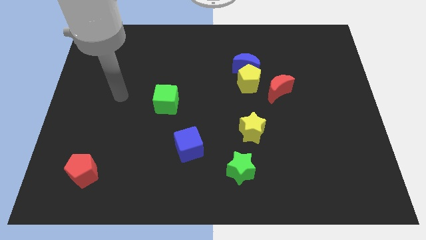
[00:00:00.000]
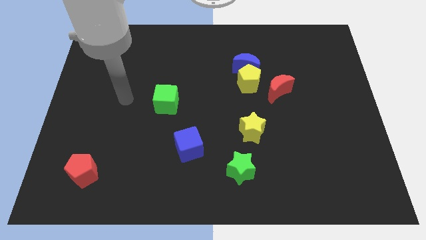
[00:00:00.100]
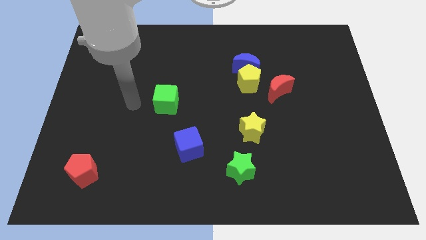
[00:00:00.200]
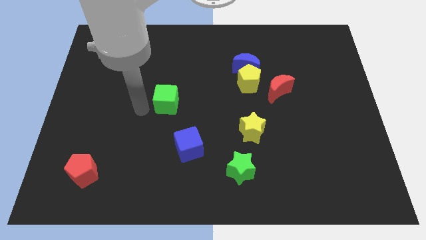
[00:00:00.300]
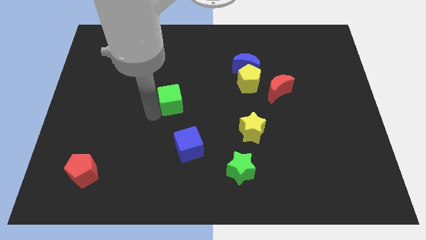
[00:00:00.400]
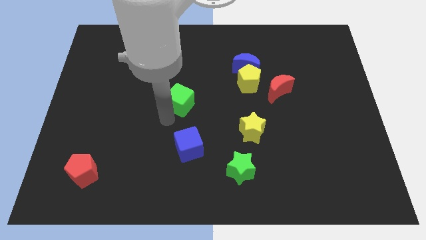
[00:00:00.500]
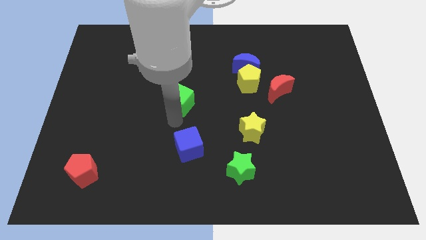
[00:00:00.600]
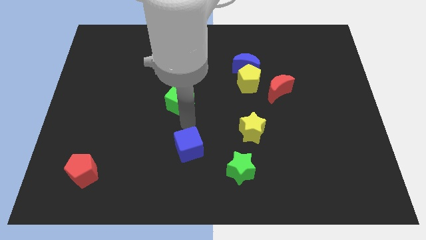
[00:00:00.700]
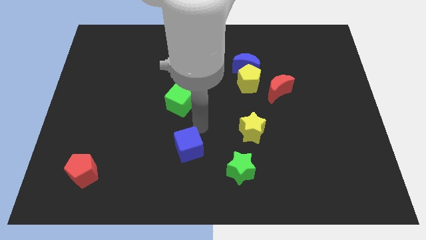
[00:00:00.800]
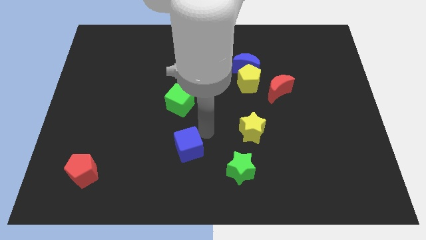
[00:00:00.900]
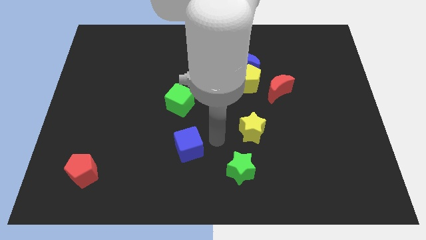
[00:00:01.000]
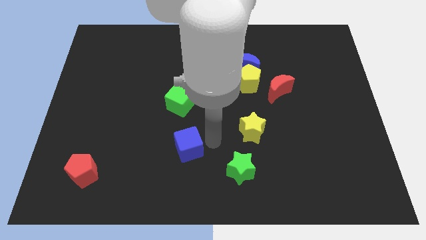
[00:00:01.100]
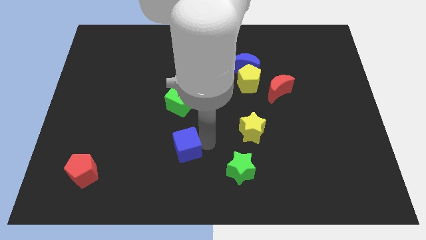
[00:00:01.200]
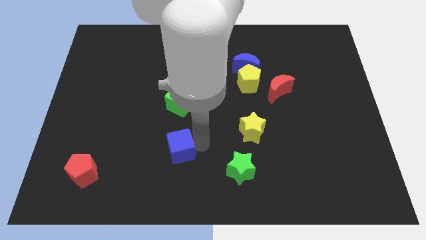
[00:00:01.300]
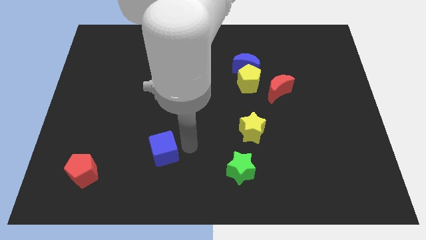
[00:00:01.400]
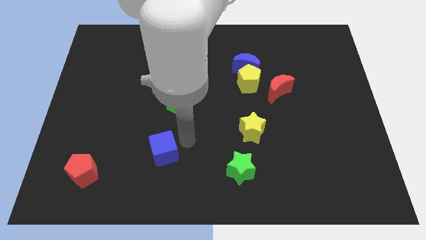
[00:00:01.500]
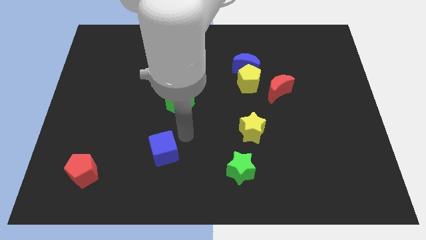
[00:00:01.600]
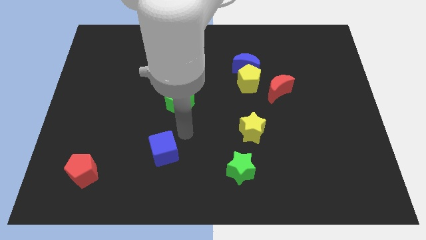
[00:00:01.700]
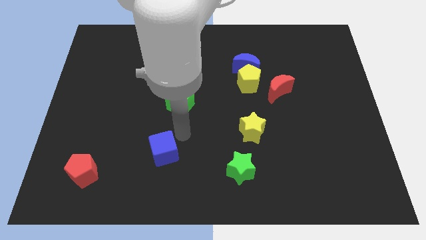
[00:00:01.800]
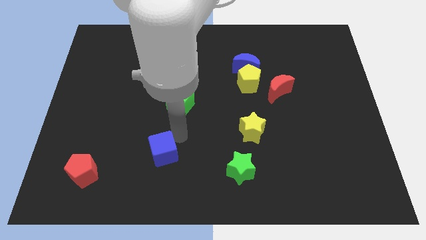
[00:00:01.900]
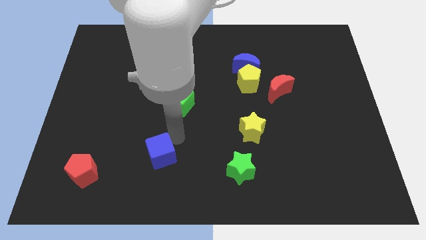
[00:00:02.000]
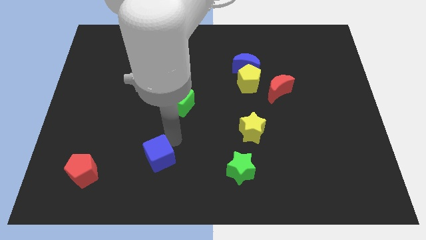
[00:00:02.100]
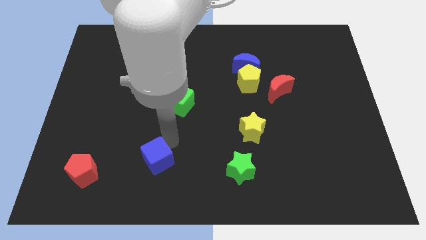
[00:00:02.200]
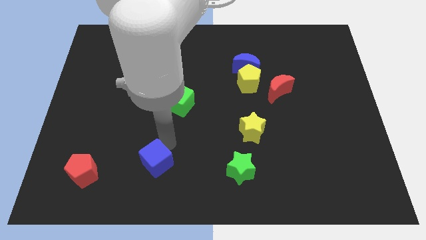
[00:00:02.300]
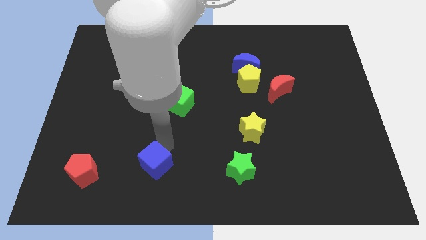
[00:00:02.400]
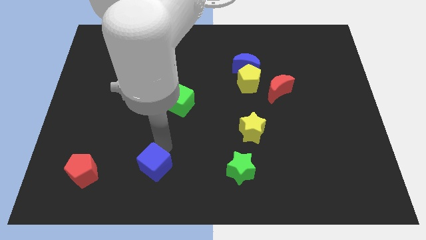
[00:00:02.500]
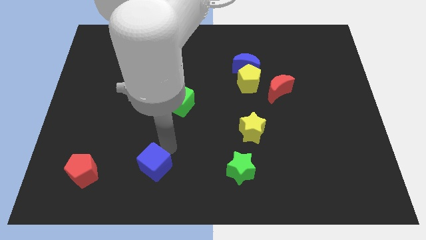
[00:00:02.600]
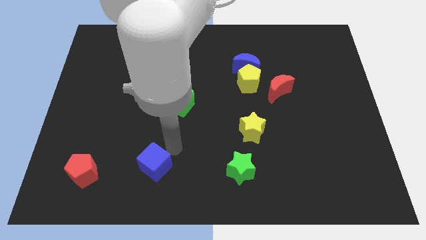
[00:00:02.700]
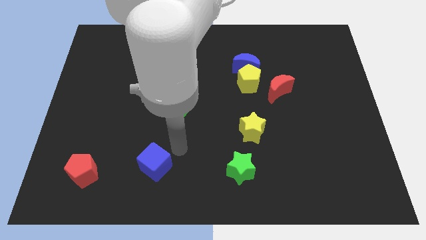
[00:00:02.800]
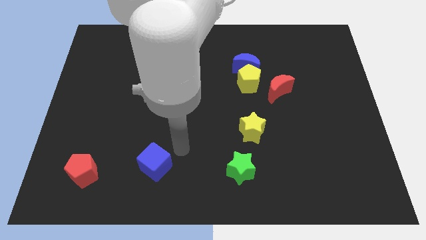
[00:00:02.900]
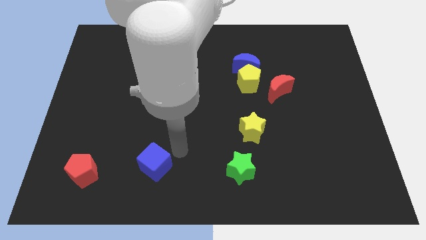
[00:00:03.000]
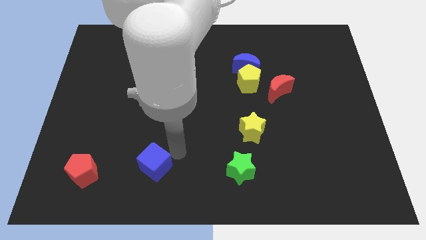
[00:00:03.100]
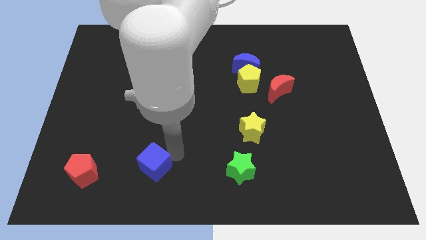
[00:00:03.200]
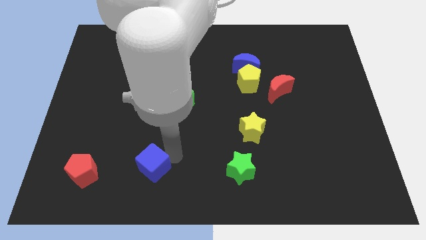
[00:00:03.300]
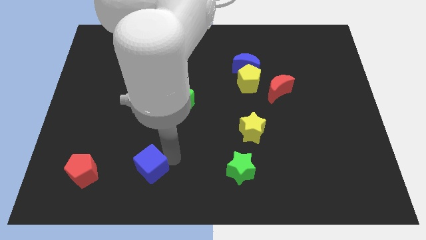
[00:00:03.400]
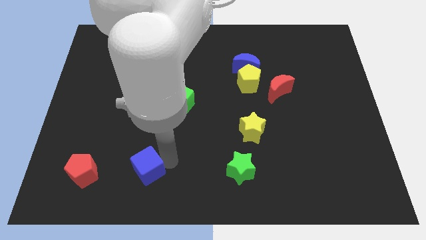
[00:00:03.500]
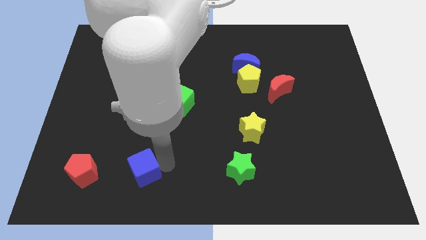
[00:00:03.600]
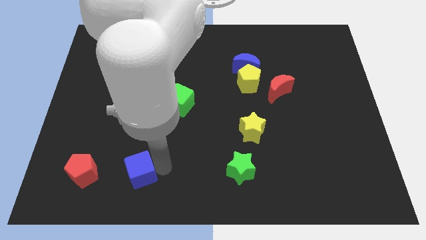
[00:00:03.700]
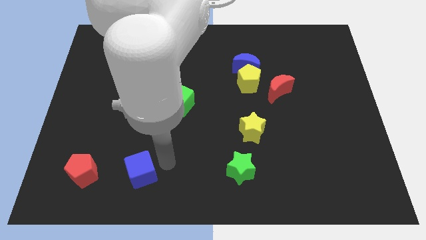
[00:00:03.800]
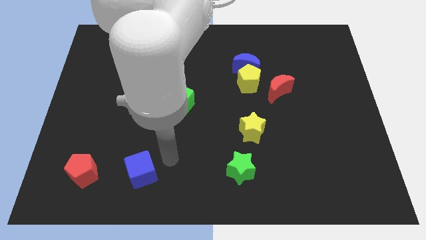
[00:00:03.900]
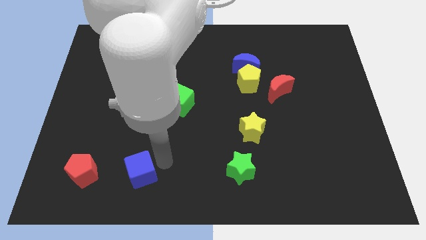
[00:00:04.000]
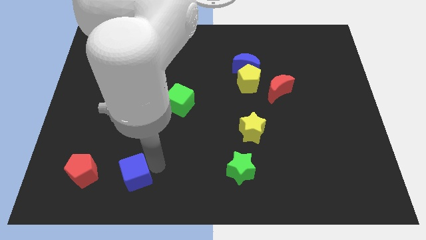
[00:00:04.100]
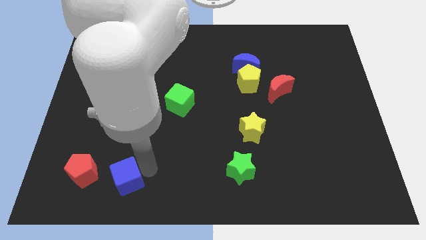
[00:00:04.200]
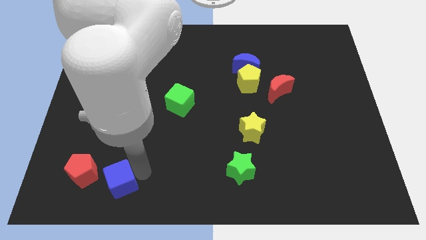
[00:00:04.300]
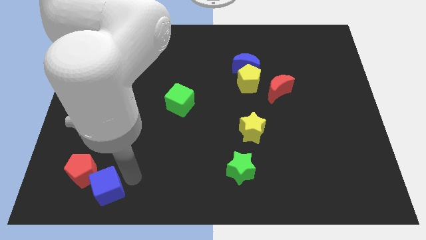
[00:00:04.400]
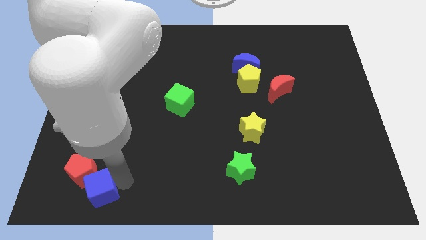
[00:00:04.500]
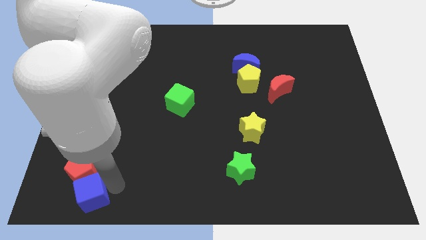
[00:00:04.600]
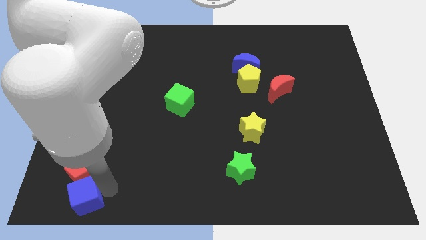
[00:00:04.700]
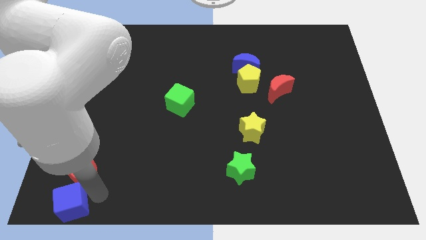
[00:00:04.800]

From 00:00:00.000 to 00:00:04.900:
move the blue cube to the bottom left of the board

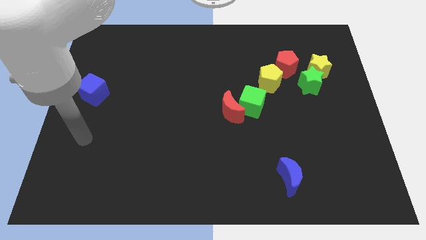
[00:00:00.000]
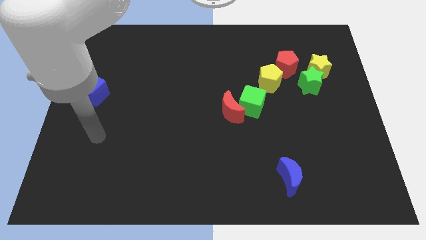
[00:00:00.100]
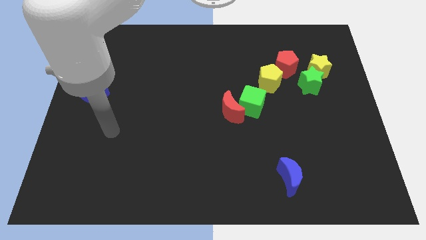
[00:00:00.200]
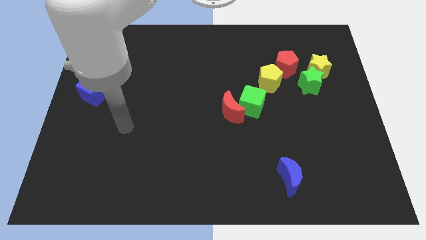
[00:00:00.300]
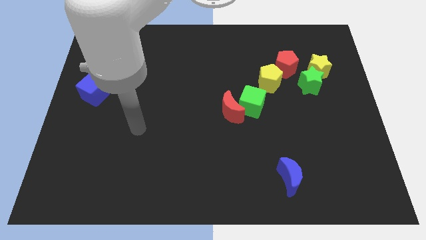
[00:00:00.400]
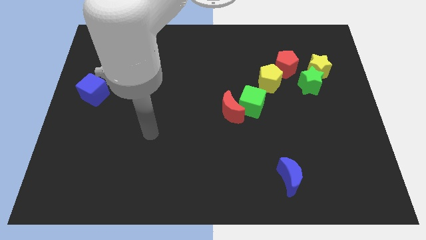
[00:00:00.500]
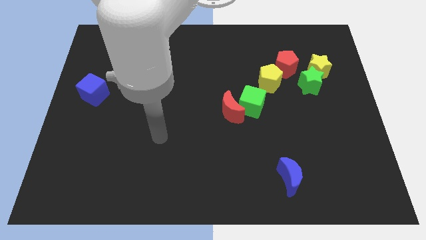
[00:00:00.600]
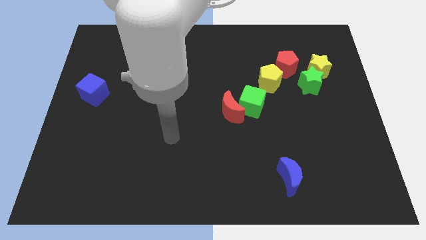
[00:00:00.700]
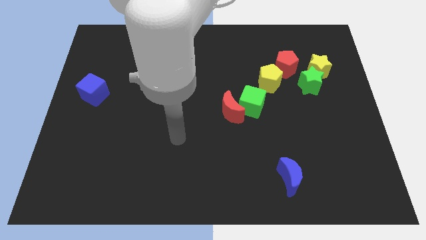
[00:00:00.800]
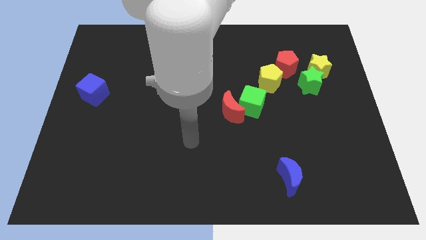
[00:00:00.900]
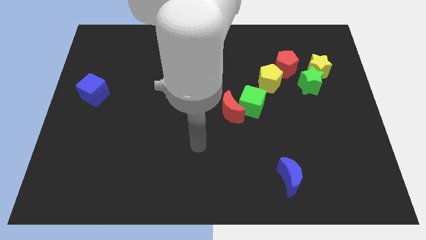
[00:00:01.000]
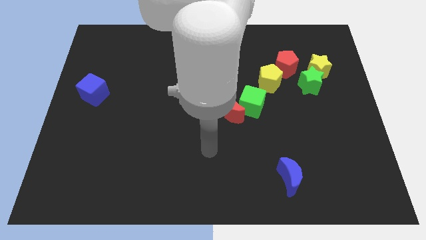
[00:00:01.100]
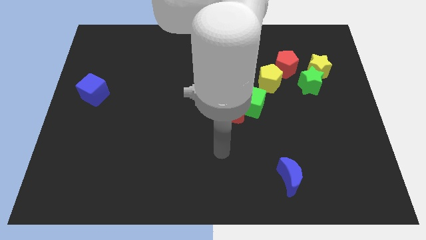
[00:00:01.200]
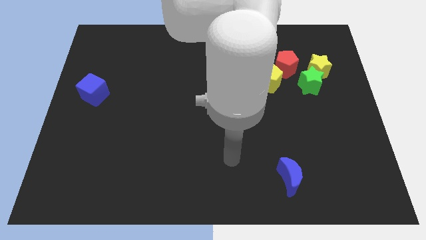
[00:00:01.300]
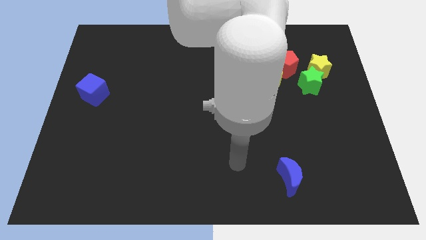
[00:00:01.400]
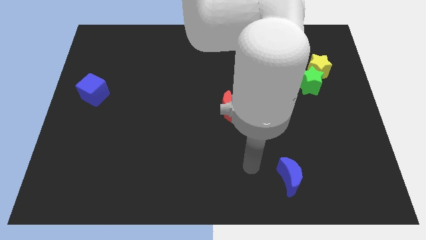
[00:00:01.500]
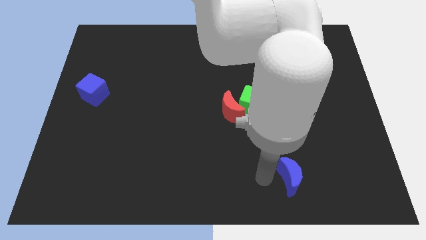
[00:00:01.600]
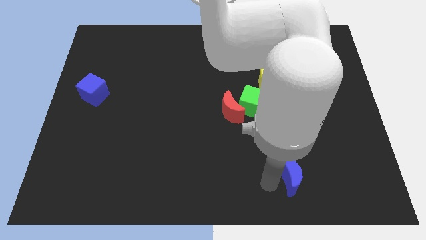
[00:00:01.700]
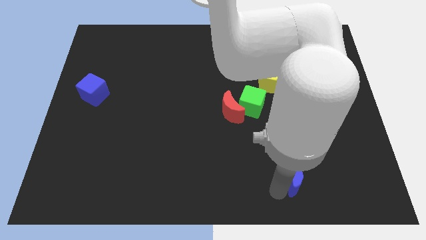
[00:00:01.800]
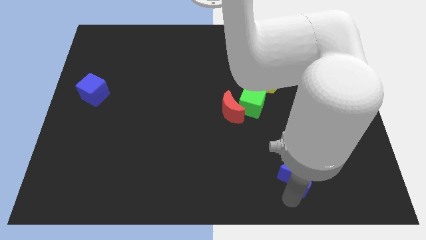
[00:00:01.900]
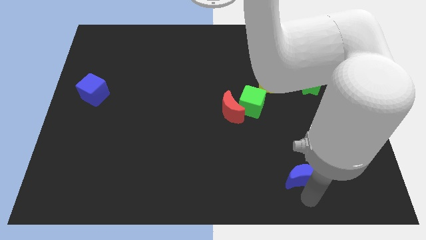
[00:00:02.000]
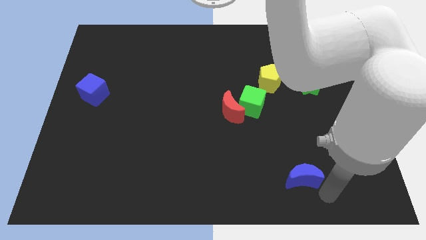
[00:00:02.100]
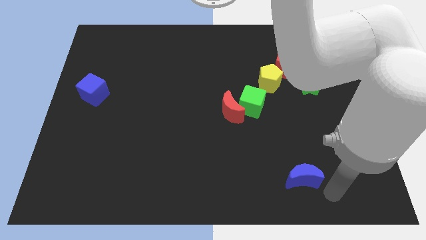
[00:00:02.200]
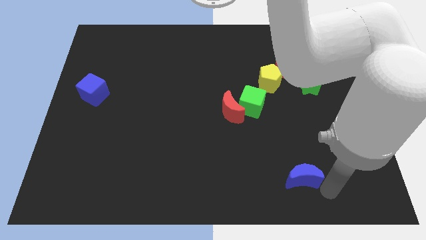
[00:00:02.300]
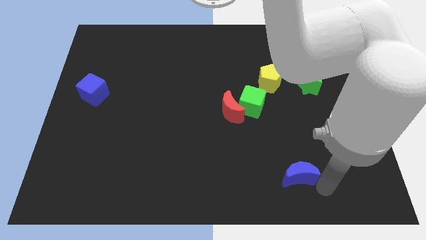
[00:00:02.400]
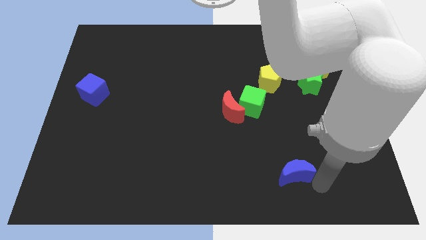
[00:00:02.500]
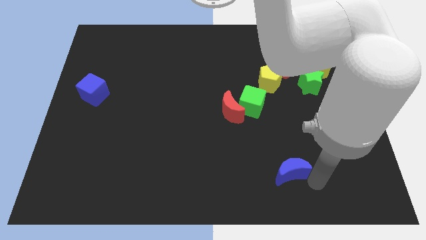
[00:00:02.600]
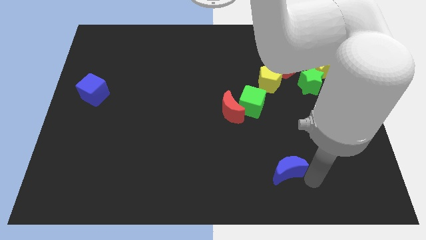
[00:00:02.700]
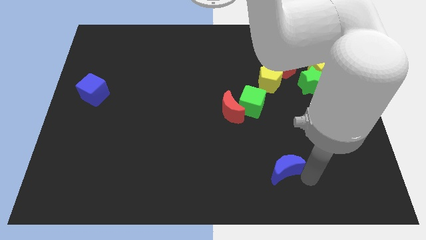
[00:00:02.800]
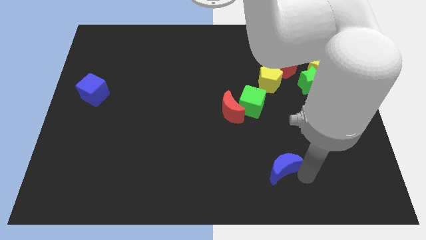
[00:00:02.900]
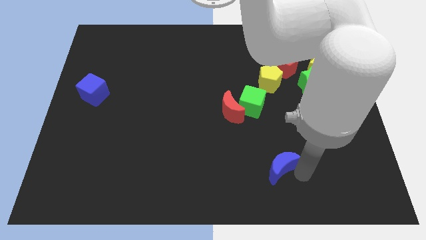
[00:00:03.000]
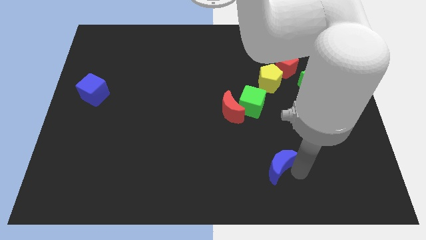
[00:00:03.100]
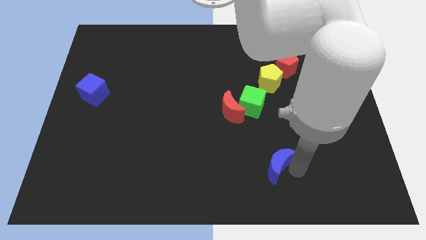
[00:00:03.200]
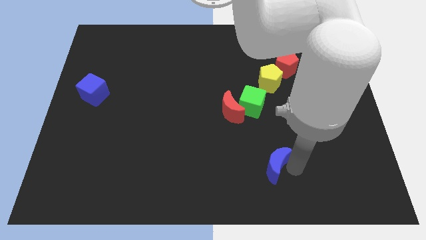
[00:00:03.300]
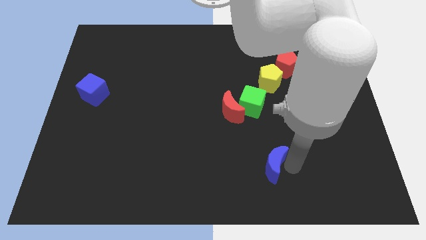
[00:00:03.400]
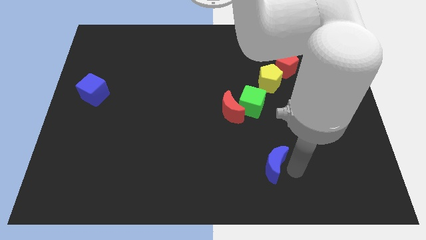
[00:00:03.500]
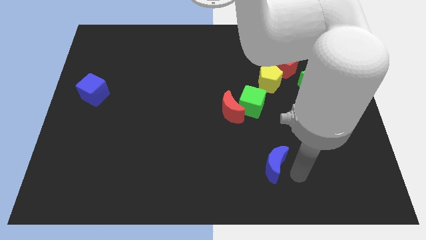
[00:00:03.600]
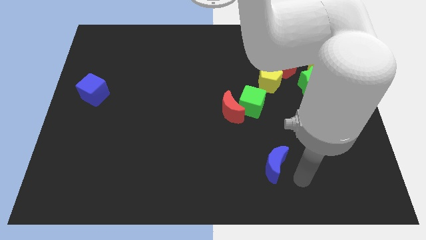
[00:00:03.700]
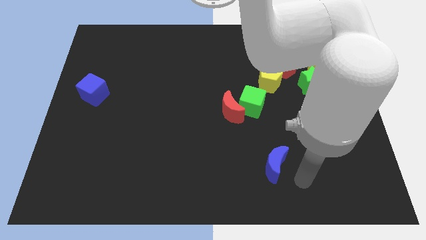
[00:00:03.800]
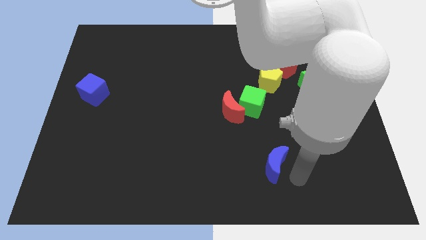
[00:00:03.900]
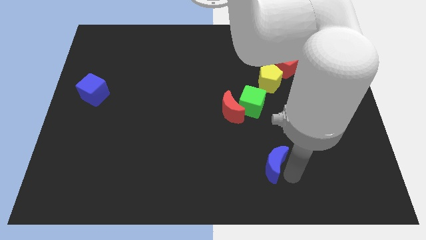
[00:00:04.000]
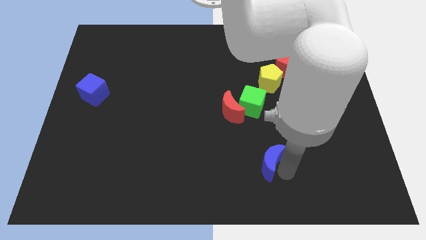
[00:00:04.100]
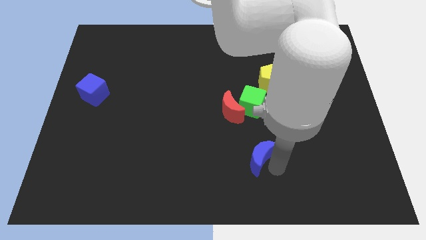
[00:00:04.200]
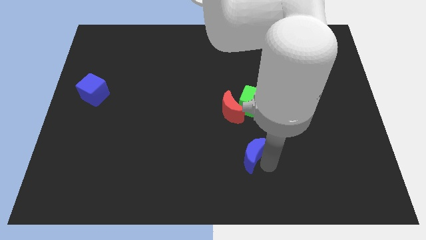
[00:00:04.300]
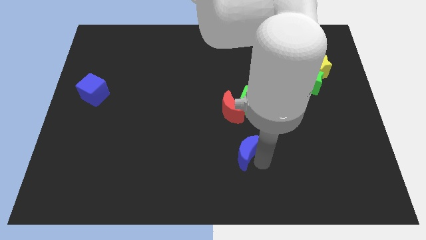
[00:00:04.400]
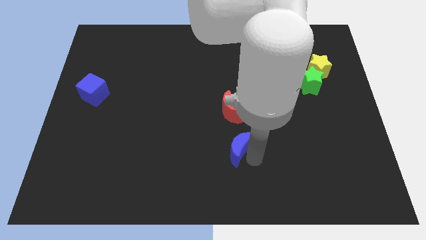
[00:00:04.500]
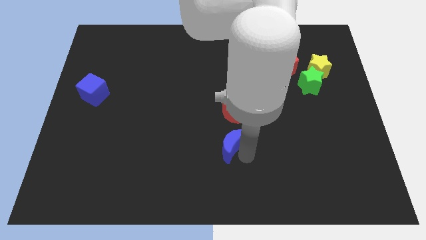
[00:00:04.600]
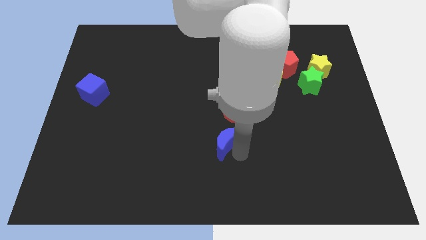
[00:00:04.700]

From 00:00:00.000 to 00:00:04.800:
move the blue moon to the middle
